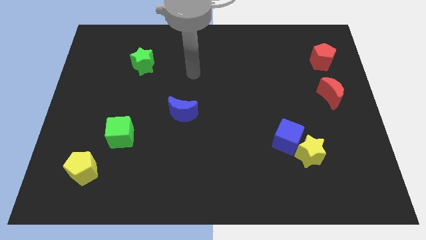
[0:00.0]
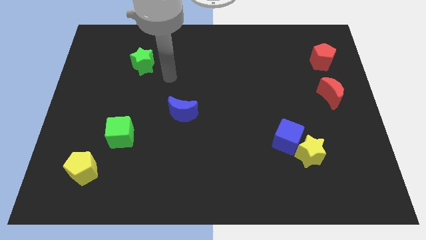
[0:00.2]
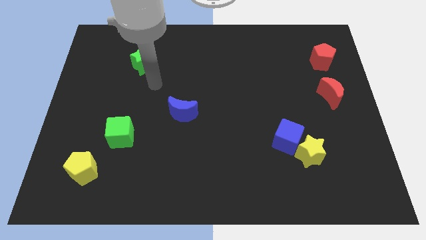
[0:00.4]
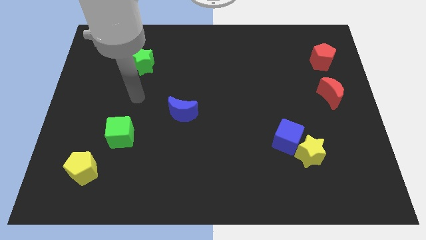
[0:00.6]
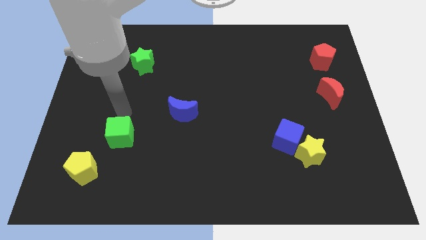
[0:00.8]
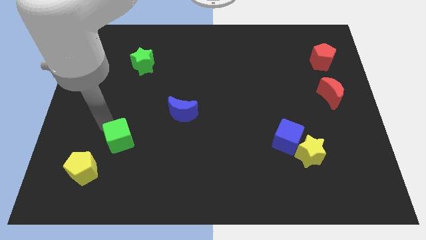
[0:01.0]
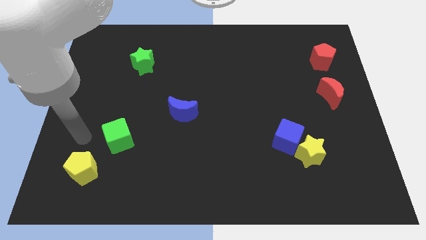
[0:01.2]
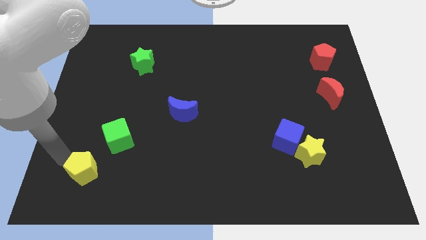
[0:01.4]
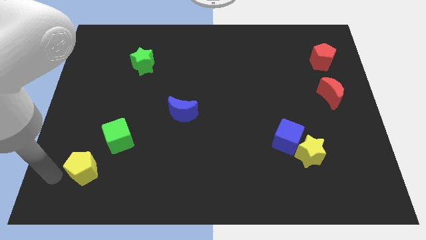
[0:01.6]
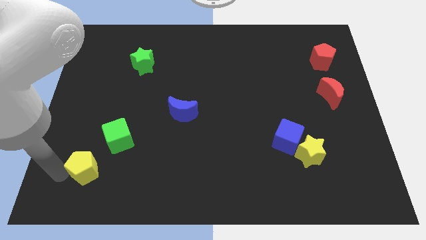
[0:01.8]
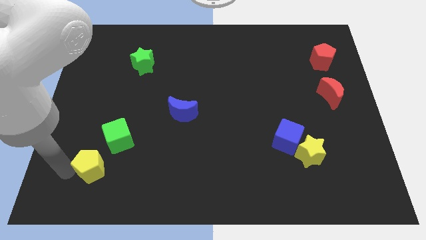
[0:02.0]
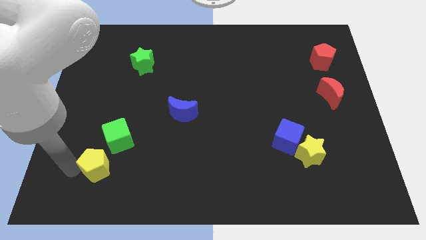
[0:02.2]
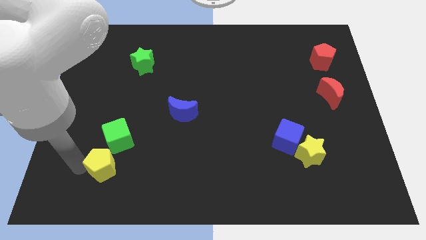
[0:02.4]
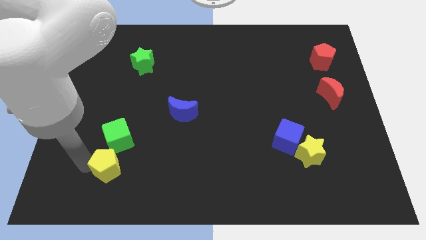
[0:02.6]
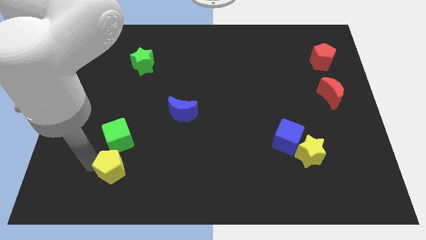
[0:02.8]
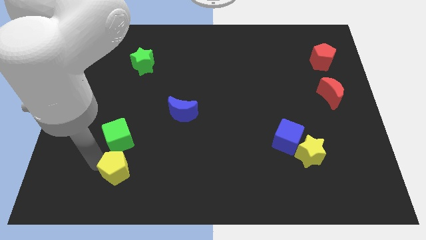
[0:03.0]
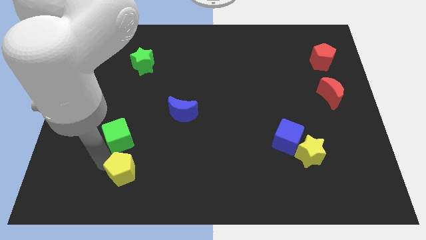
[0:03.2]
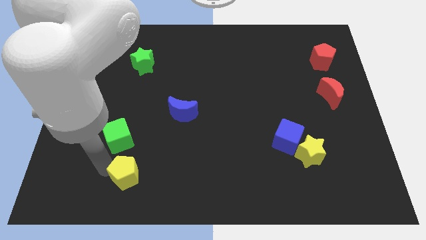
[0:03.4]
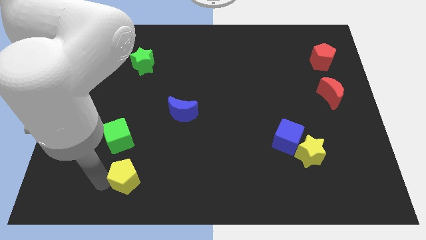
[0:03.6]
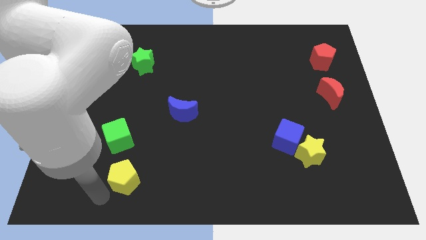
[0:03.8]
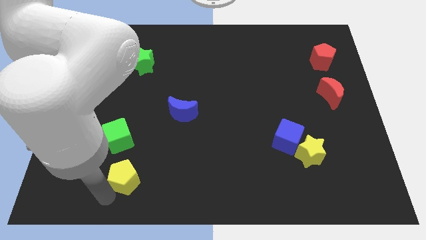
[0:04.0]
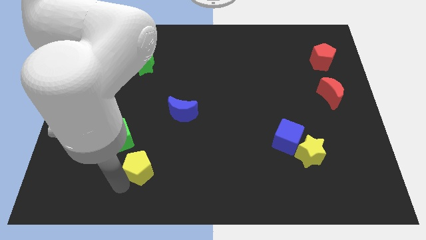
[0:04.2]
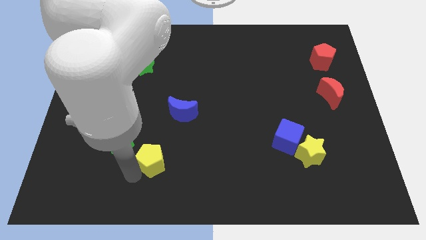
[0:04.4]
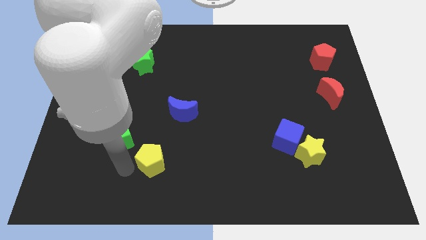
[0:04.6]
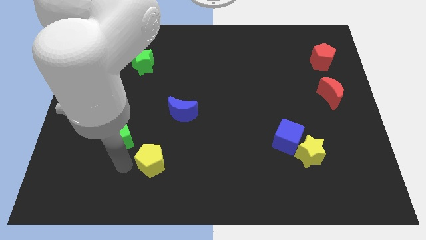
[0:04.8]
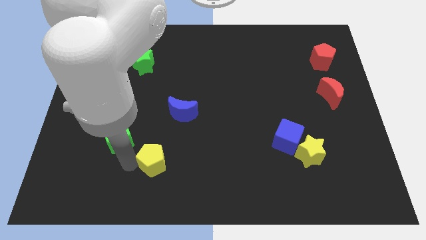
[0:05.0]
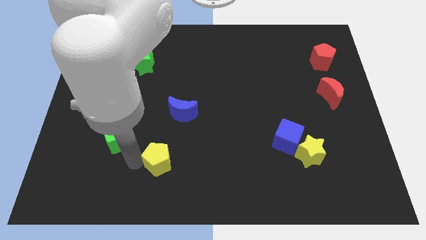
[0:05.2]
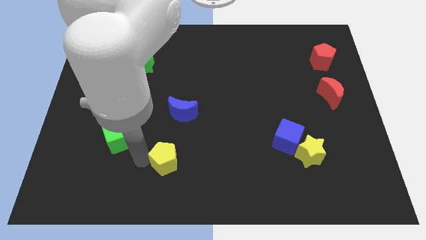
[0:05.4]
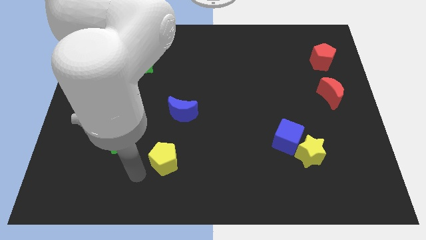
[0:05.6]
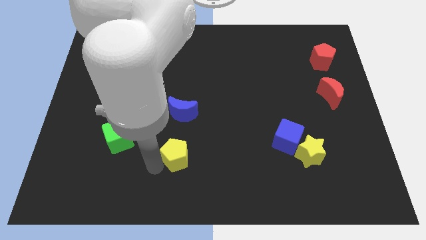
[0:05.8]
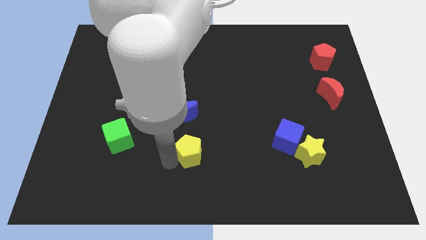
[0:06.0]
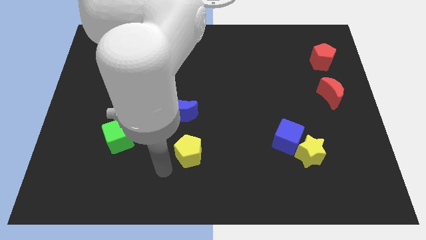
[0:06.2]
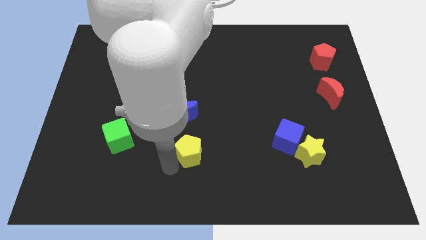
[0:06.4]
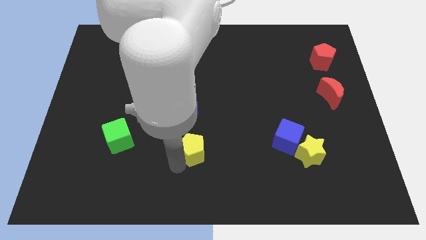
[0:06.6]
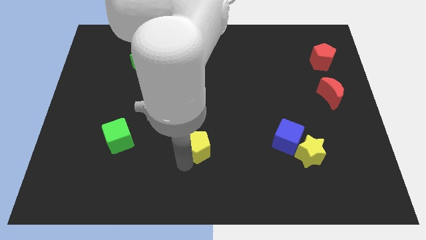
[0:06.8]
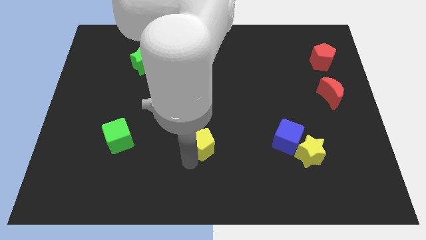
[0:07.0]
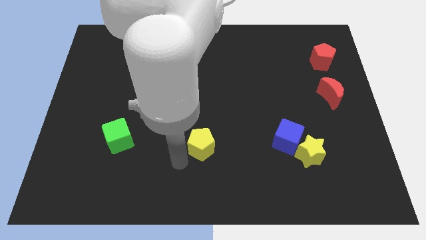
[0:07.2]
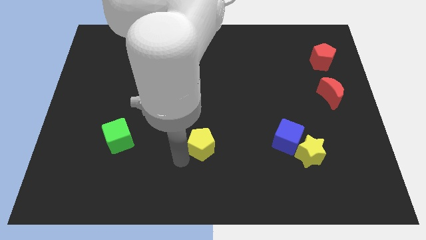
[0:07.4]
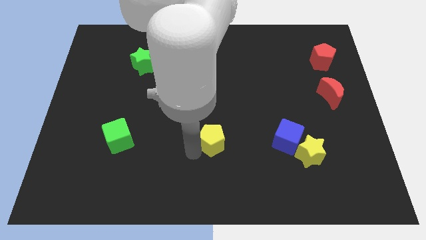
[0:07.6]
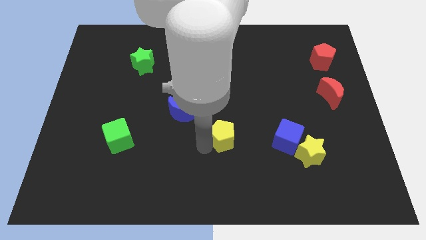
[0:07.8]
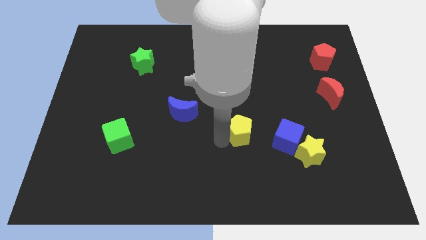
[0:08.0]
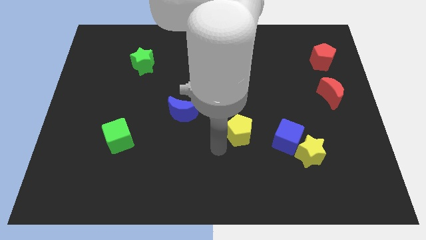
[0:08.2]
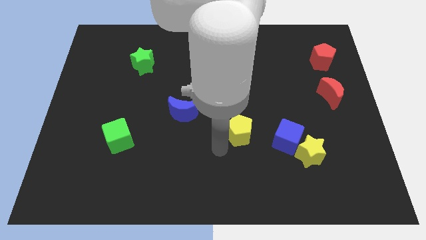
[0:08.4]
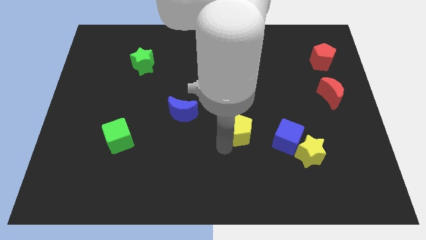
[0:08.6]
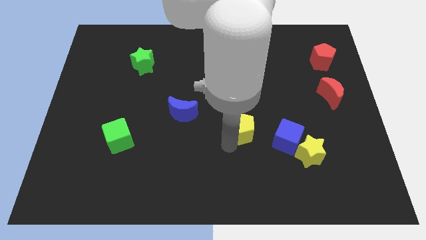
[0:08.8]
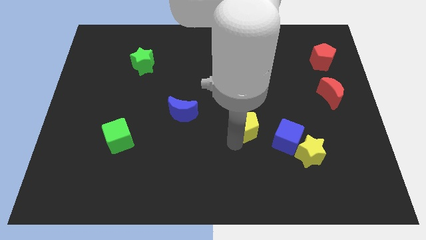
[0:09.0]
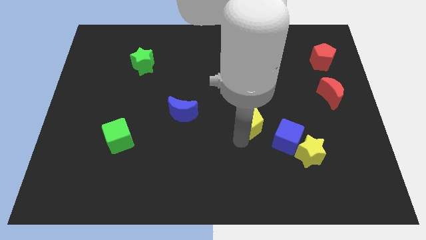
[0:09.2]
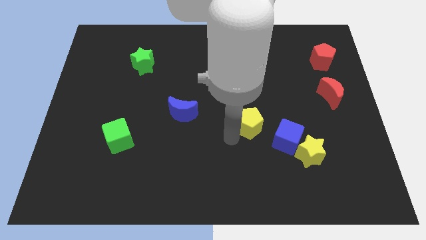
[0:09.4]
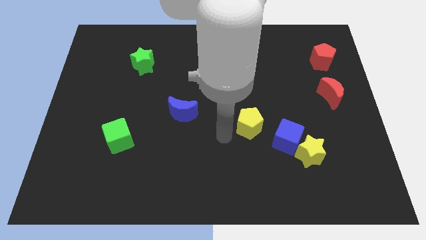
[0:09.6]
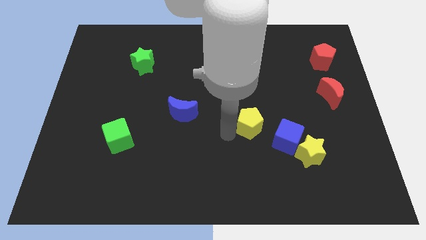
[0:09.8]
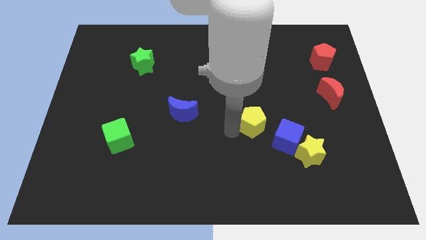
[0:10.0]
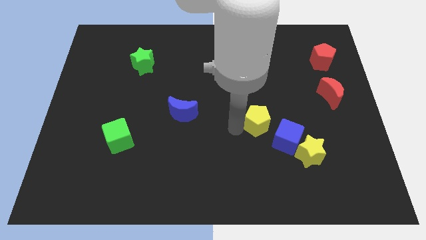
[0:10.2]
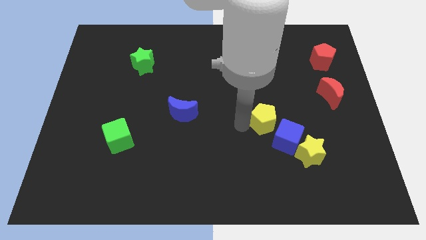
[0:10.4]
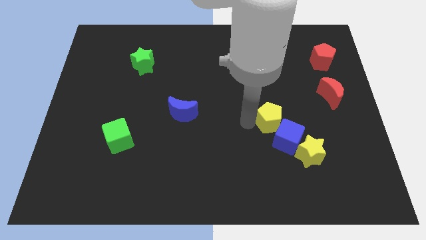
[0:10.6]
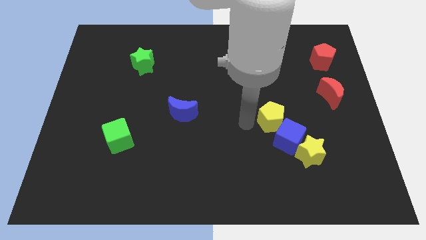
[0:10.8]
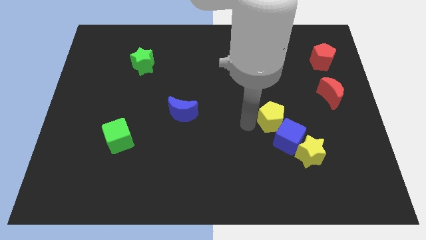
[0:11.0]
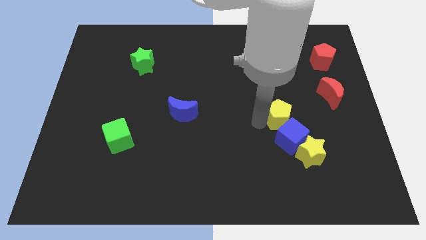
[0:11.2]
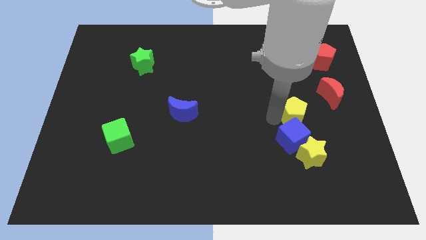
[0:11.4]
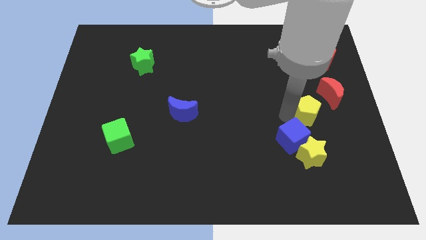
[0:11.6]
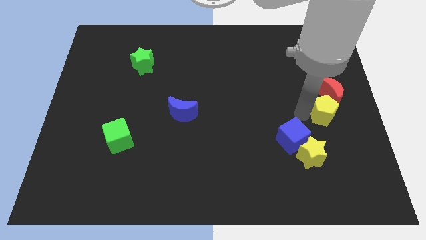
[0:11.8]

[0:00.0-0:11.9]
slide the yellow pentagon to the center right

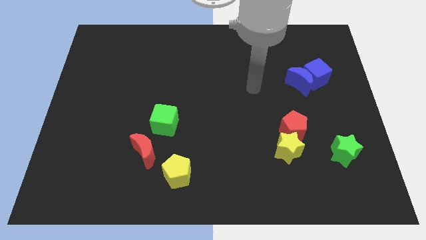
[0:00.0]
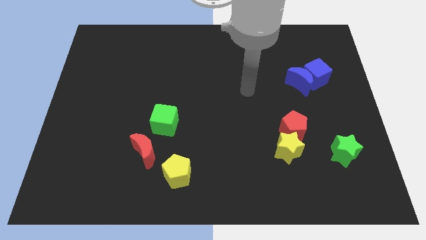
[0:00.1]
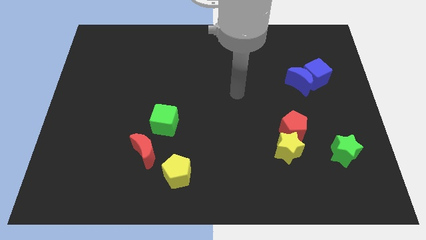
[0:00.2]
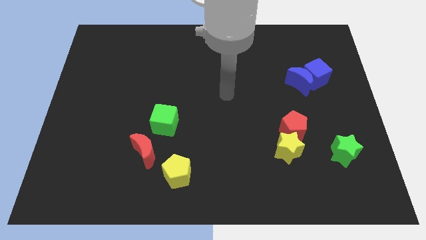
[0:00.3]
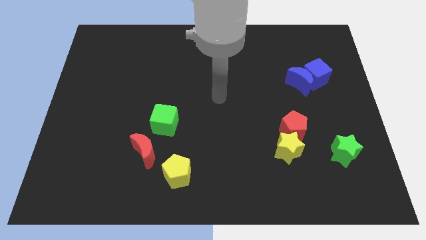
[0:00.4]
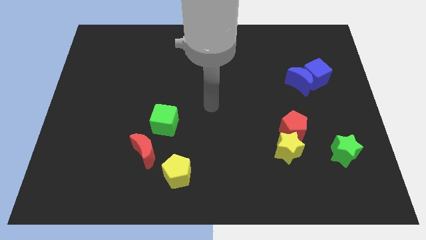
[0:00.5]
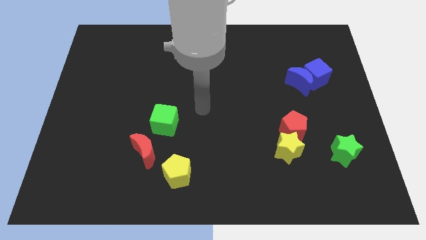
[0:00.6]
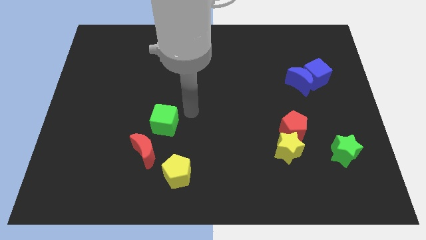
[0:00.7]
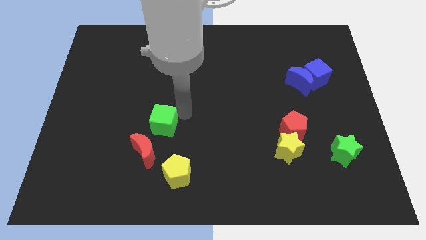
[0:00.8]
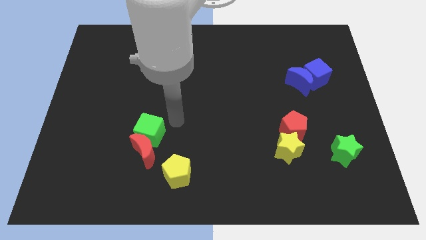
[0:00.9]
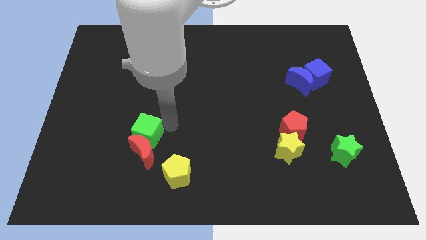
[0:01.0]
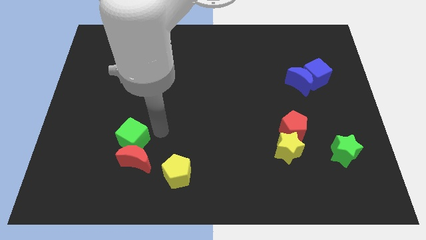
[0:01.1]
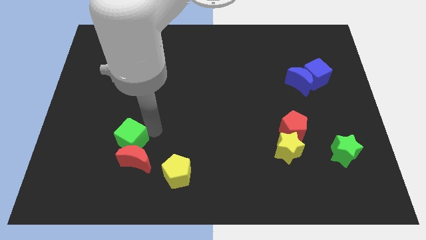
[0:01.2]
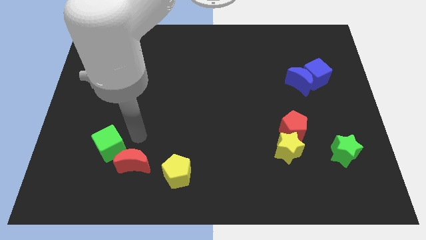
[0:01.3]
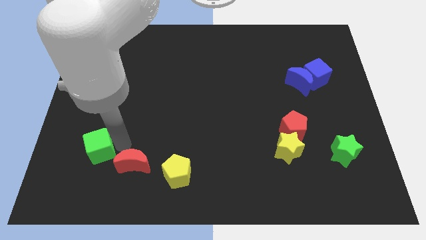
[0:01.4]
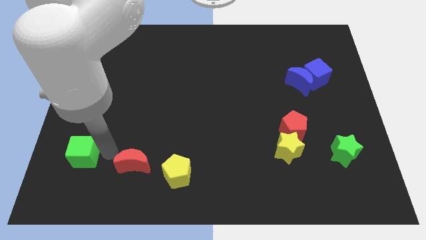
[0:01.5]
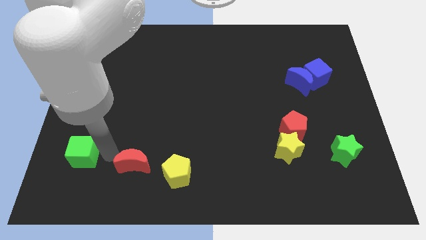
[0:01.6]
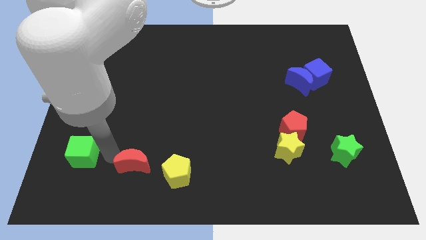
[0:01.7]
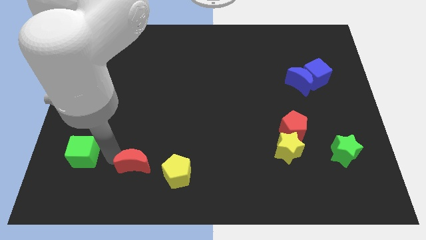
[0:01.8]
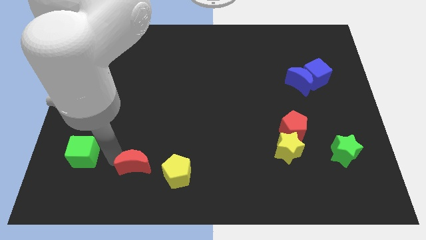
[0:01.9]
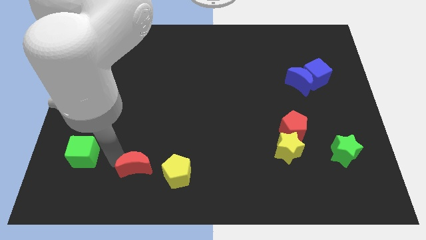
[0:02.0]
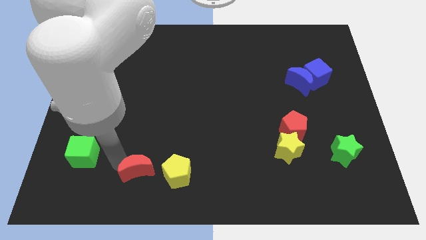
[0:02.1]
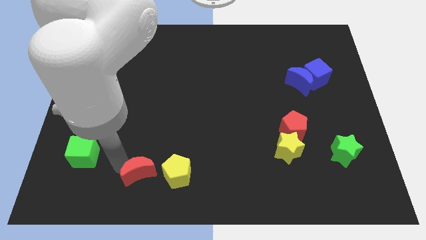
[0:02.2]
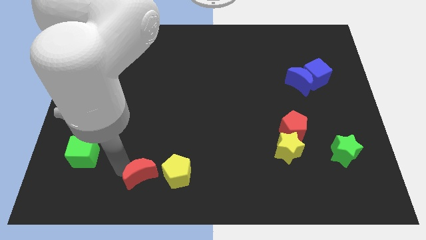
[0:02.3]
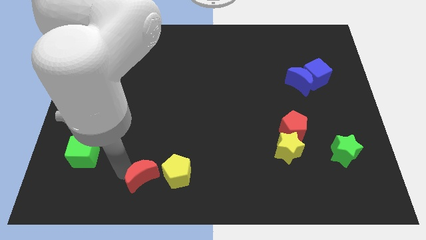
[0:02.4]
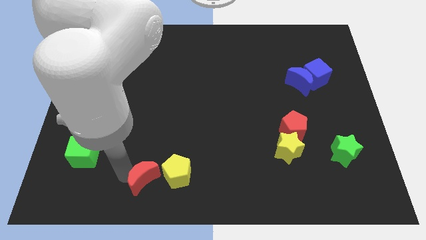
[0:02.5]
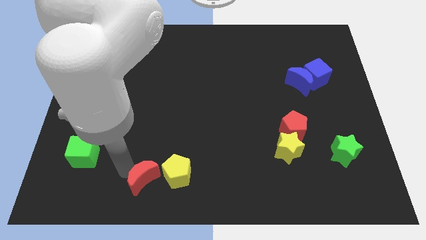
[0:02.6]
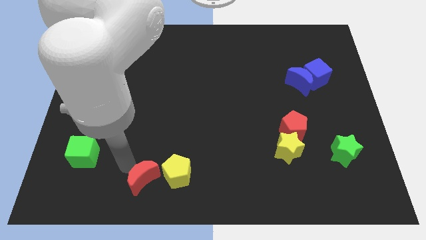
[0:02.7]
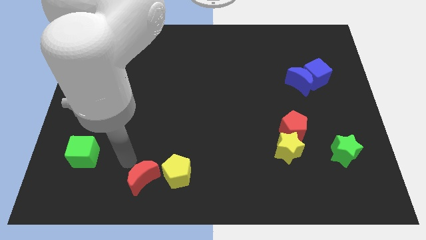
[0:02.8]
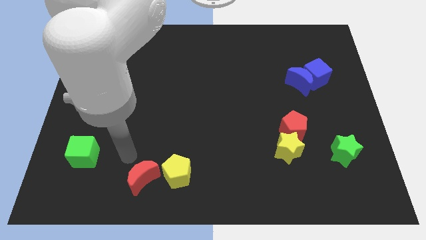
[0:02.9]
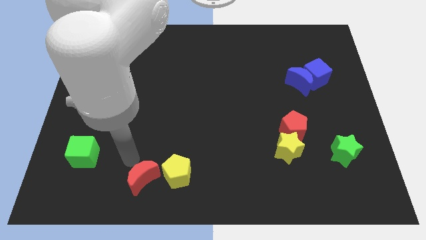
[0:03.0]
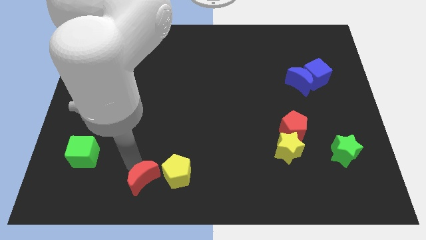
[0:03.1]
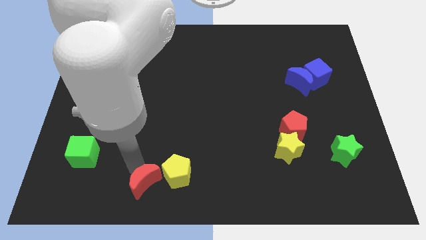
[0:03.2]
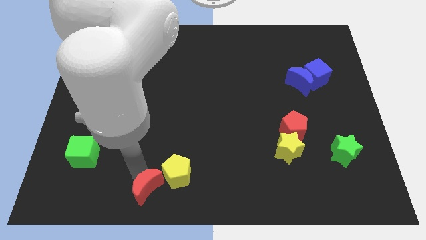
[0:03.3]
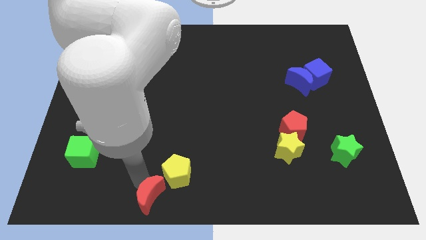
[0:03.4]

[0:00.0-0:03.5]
move the red moon to the bottom side
